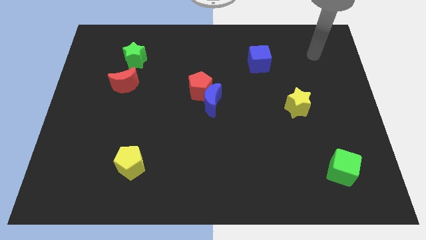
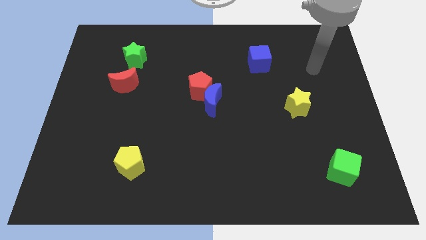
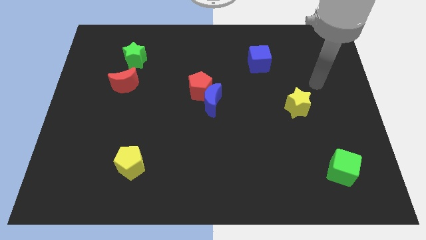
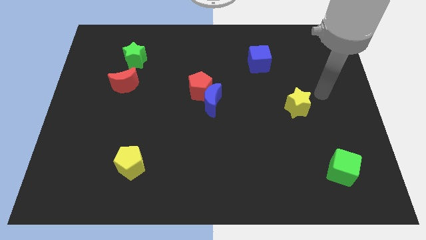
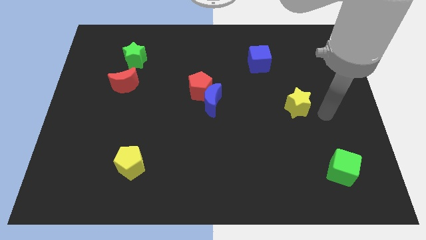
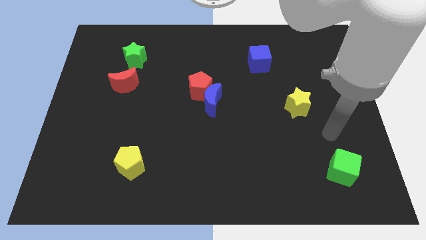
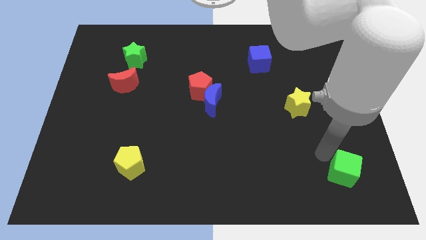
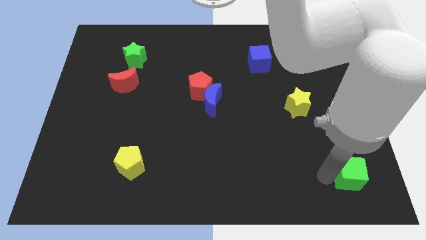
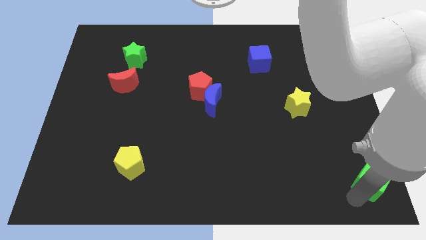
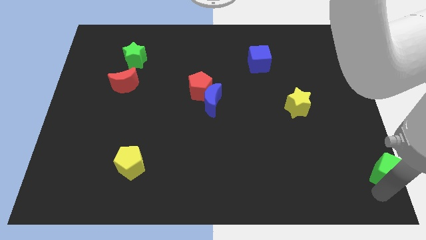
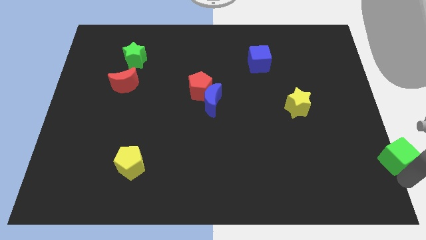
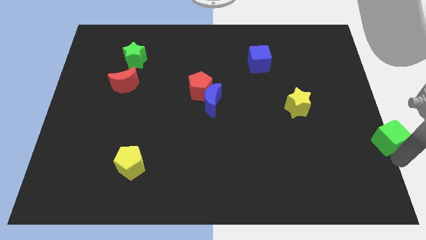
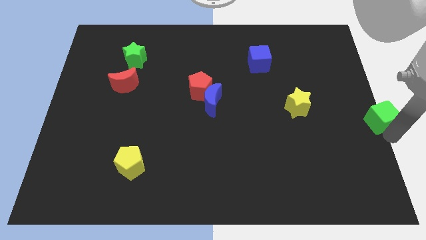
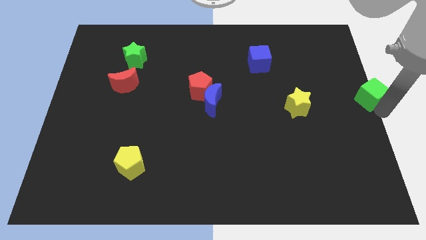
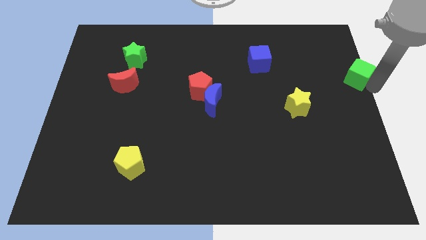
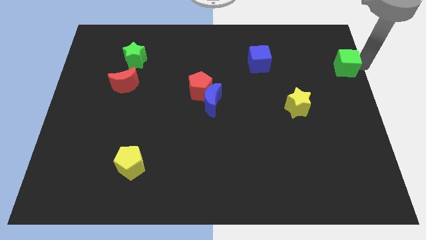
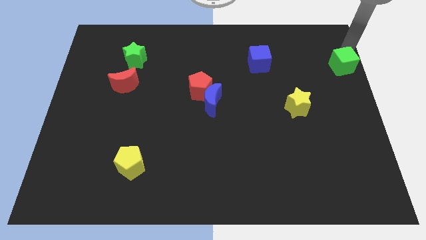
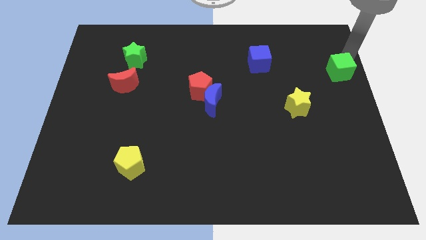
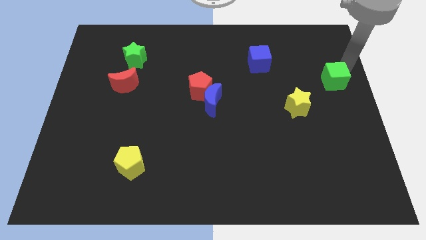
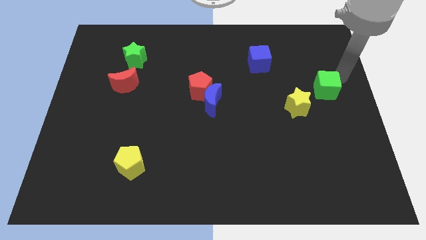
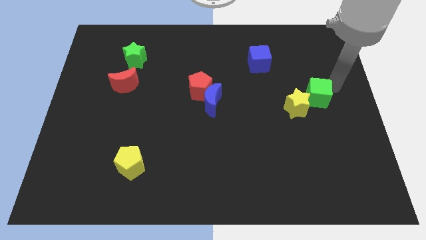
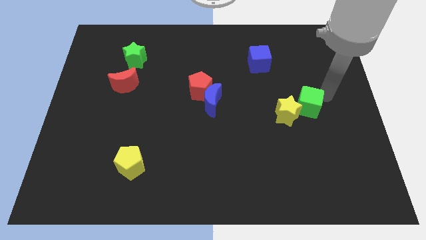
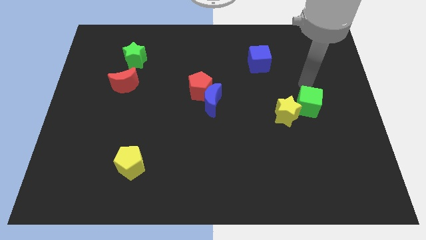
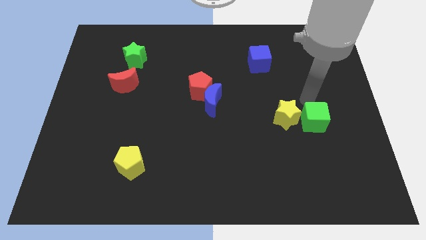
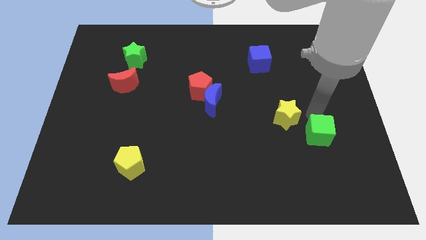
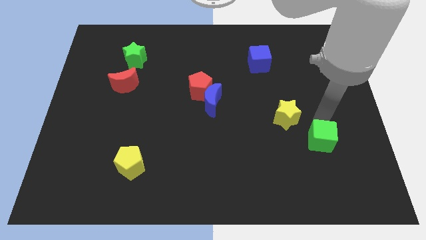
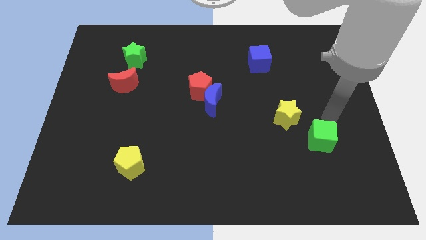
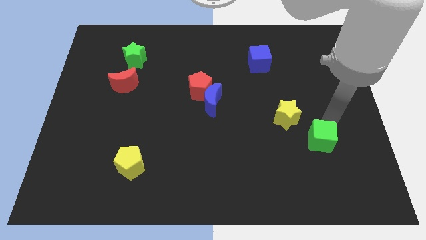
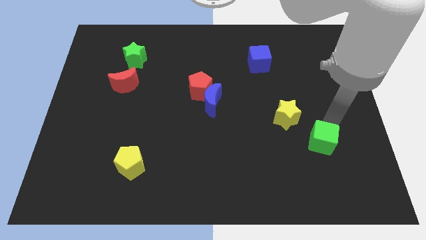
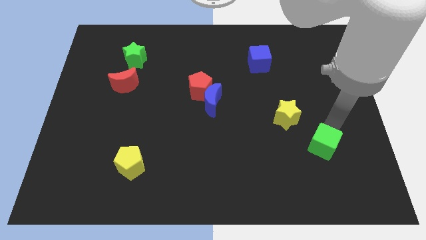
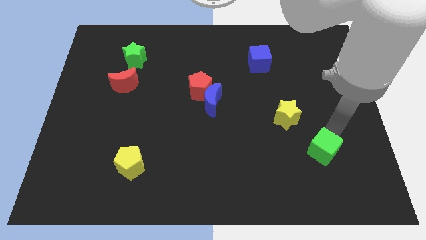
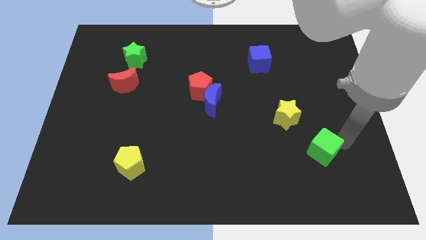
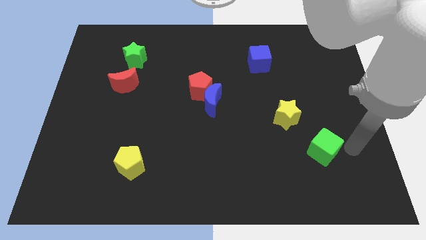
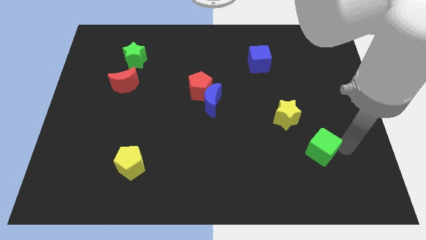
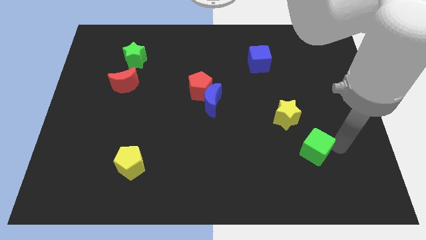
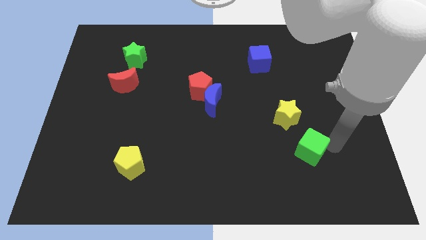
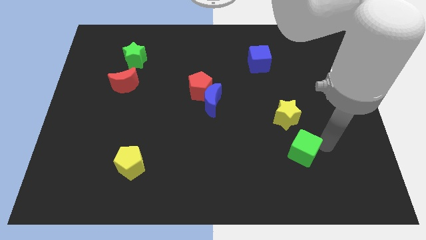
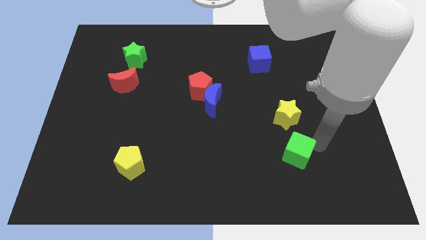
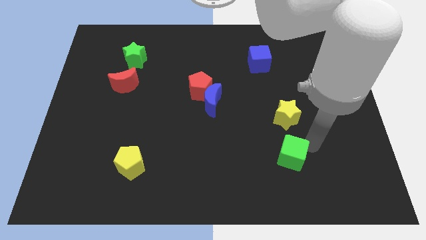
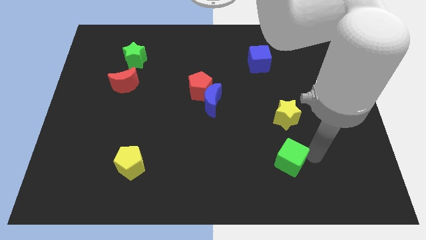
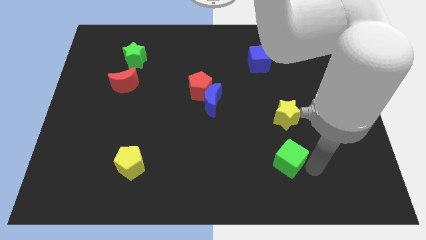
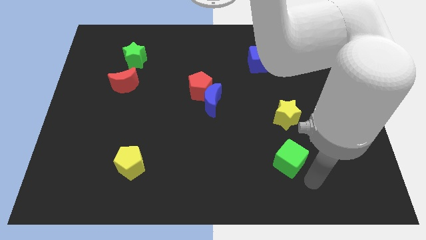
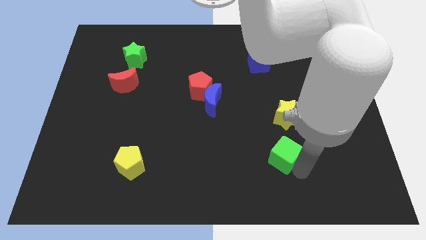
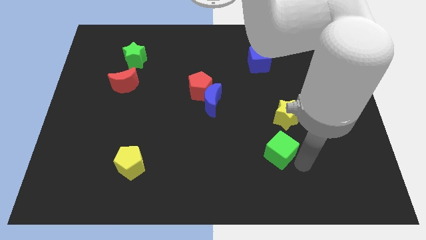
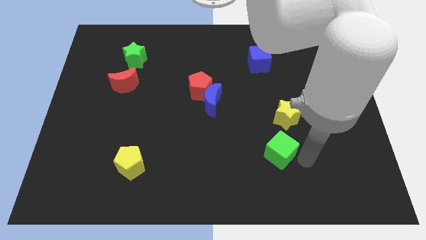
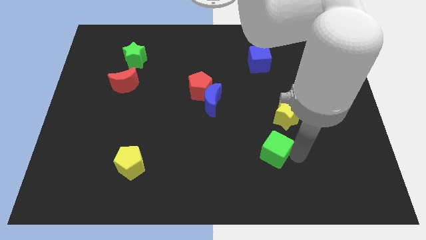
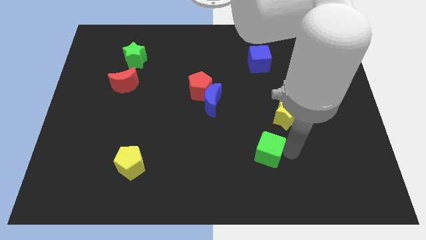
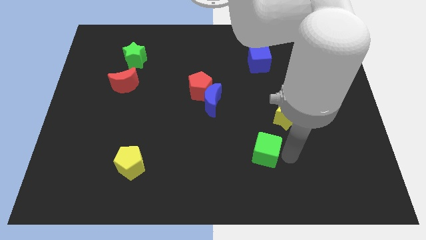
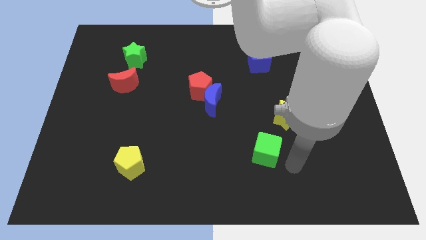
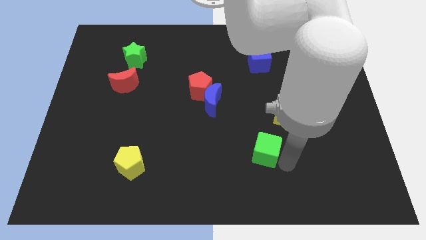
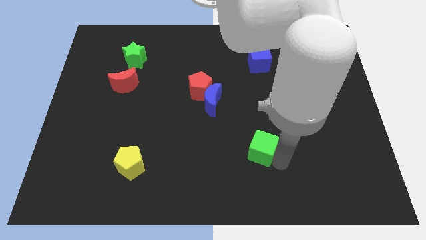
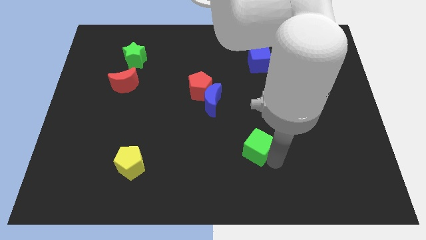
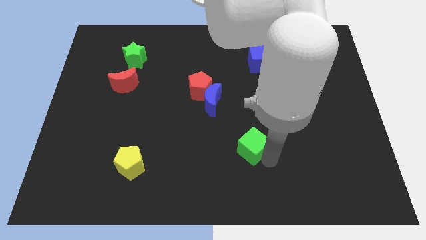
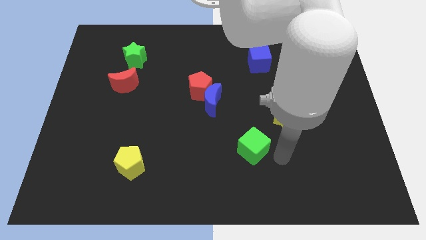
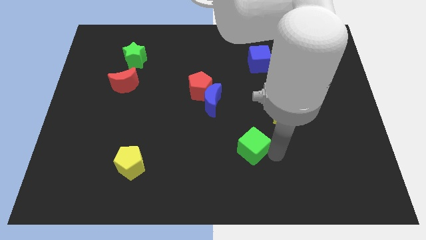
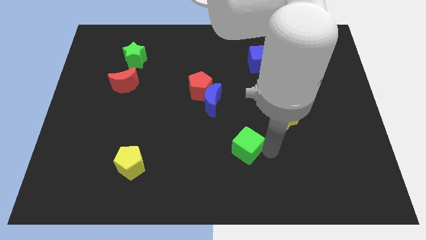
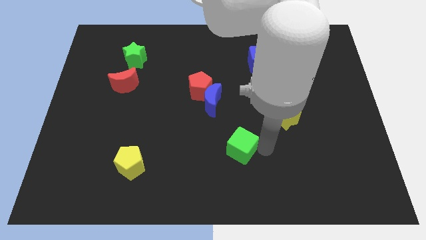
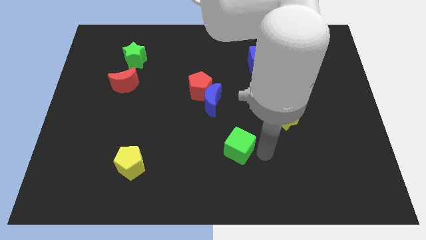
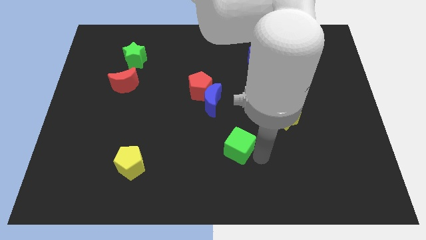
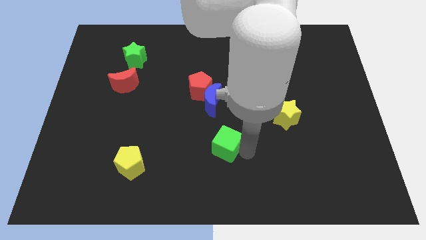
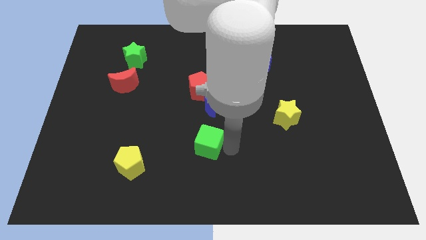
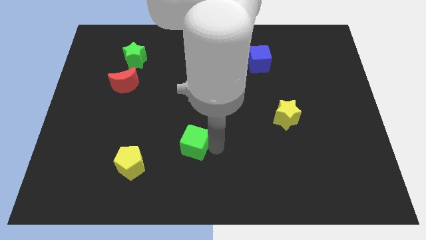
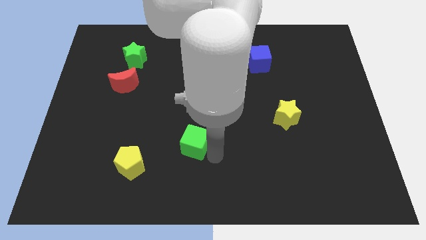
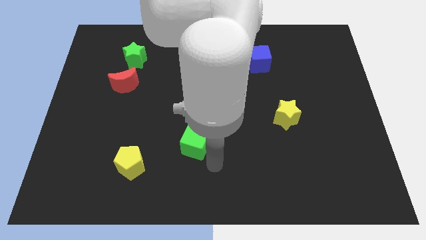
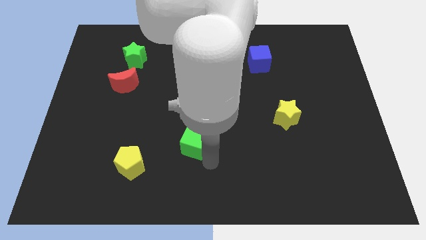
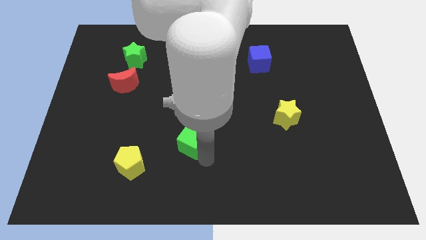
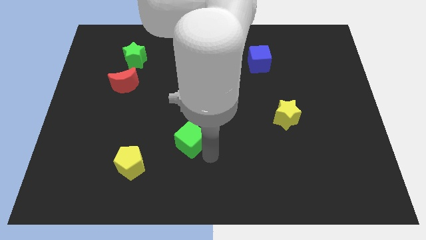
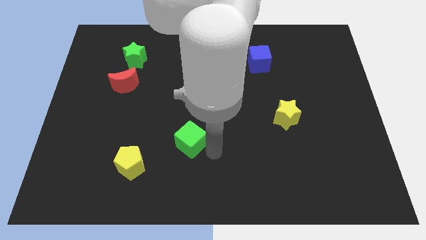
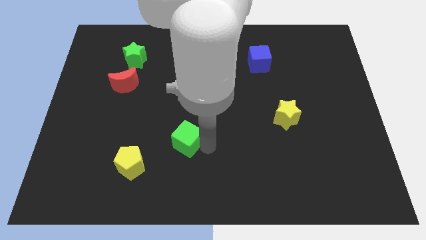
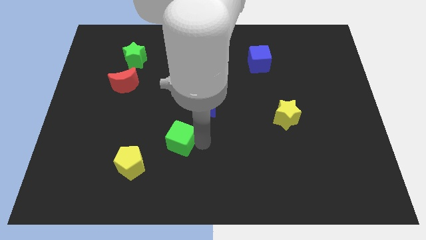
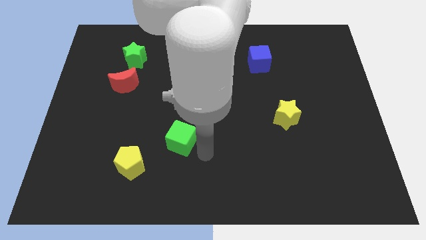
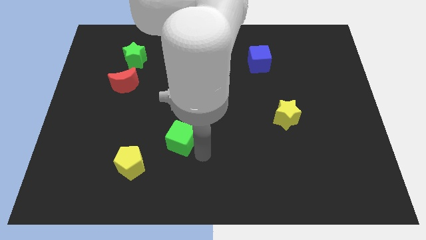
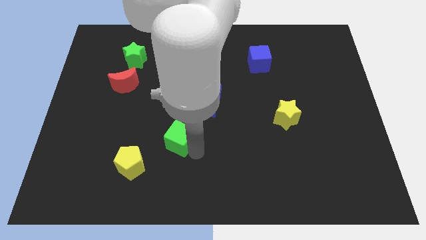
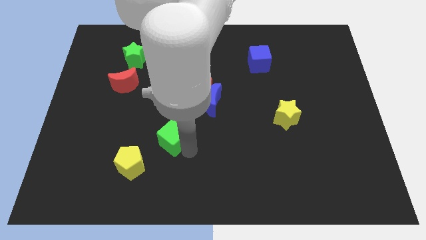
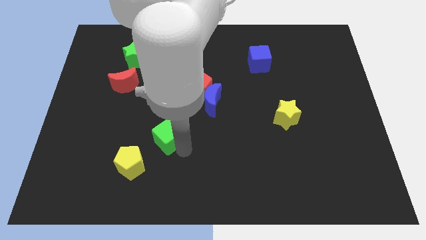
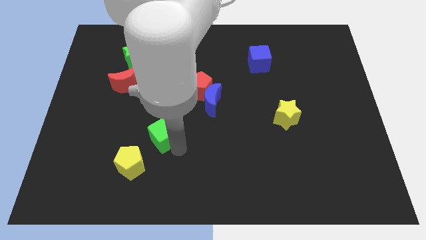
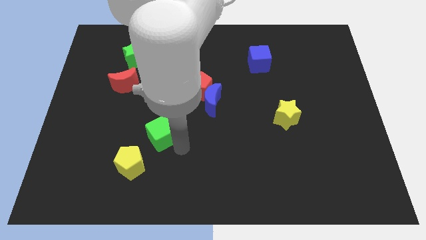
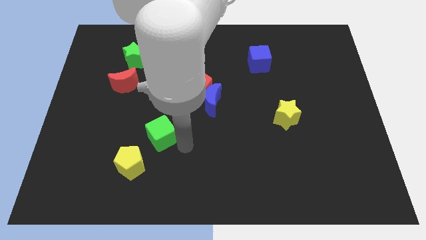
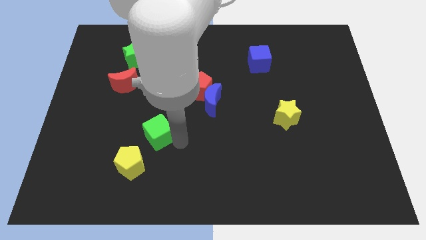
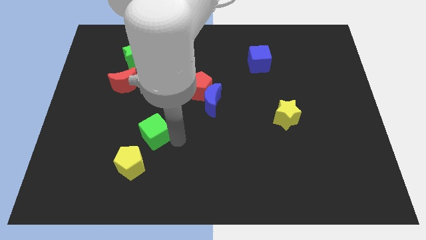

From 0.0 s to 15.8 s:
move the green cube to the top of the yellow pentagon
